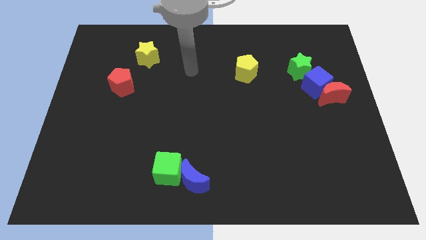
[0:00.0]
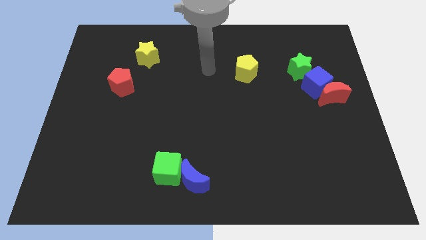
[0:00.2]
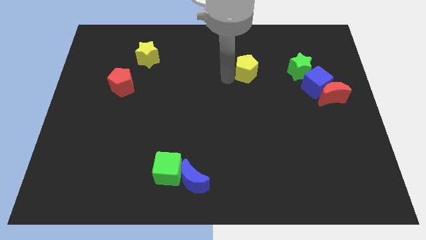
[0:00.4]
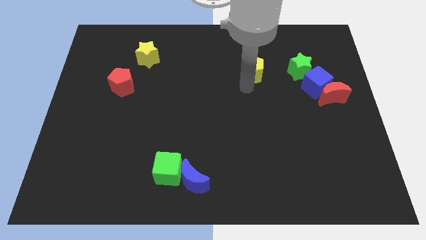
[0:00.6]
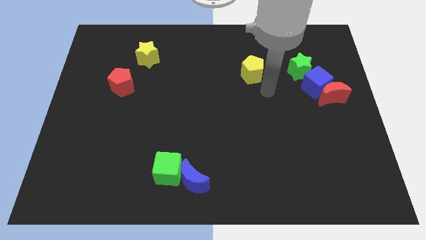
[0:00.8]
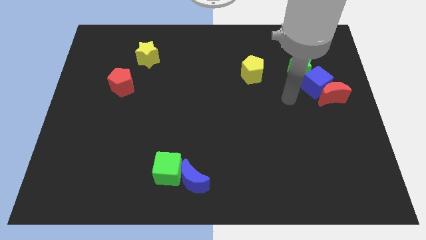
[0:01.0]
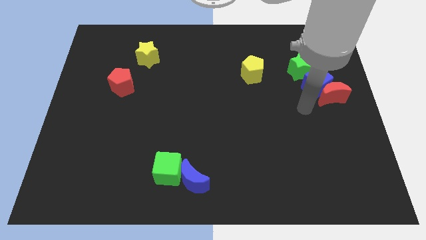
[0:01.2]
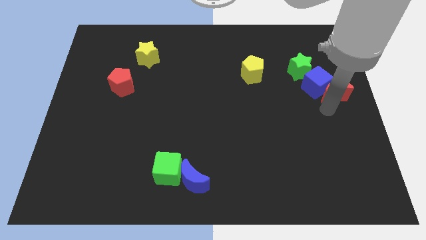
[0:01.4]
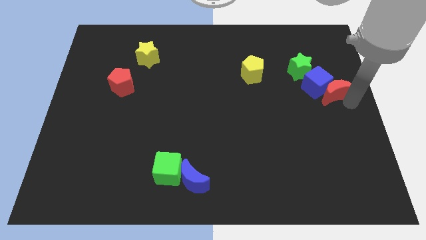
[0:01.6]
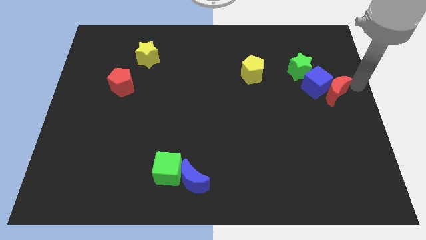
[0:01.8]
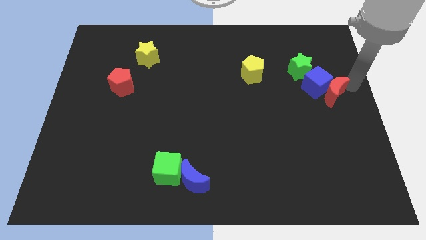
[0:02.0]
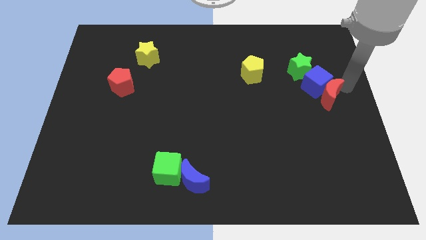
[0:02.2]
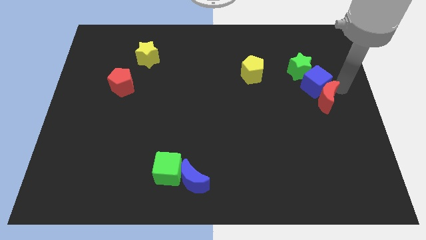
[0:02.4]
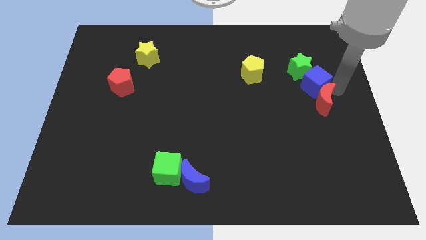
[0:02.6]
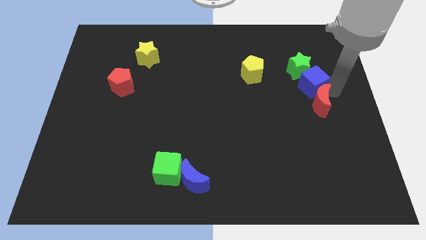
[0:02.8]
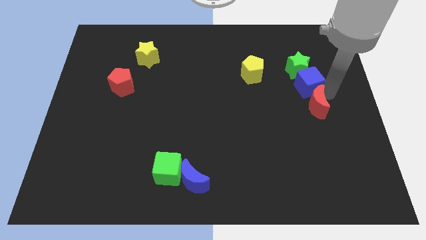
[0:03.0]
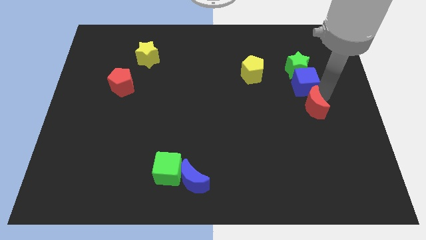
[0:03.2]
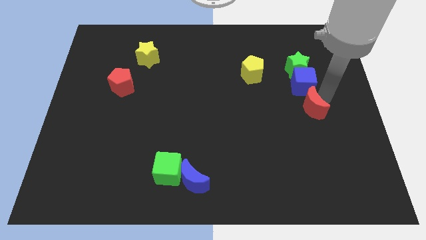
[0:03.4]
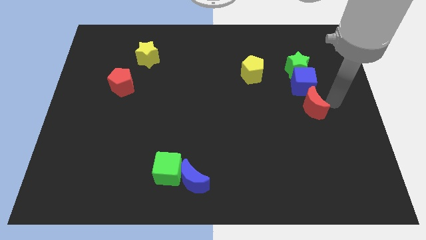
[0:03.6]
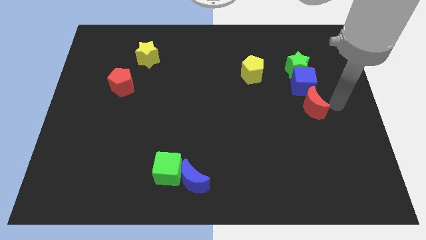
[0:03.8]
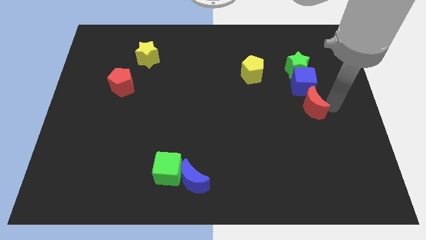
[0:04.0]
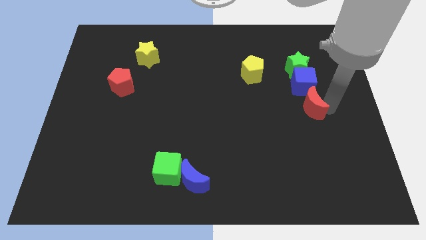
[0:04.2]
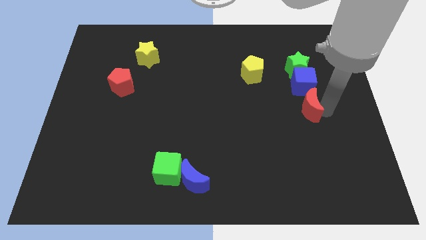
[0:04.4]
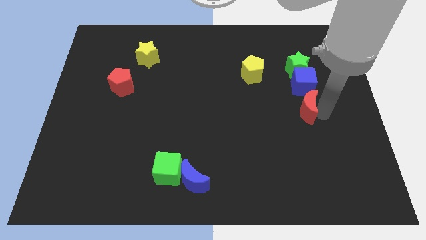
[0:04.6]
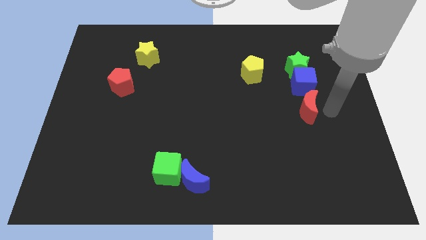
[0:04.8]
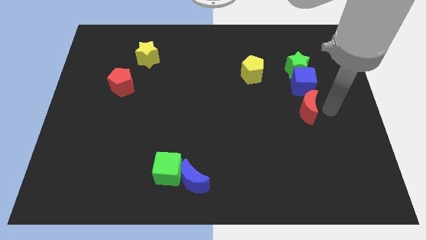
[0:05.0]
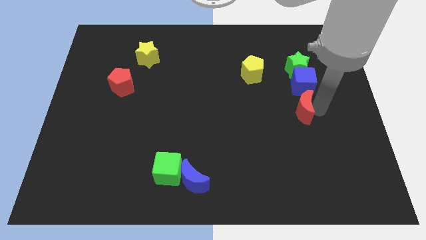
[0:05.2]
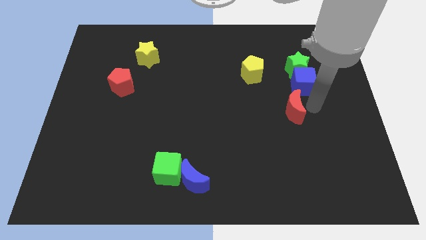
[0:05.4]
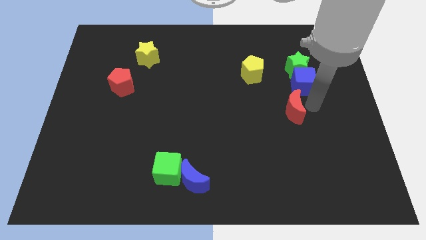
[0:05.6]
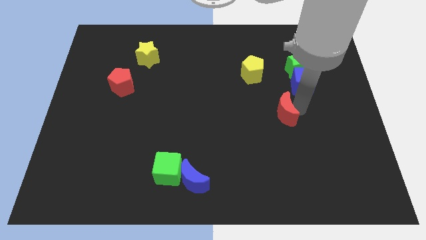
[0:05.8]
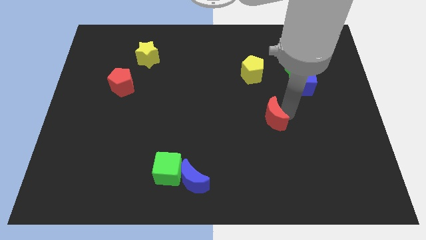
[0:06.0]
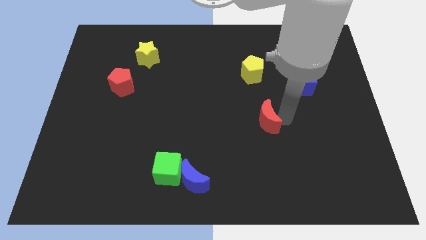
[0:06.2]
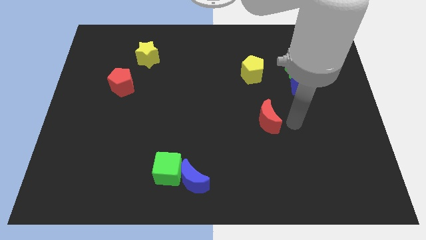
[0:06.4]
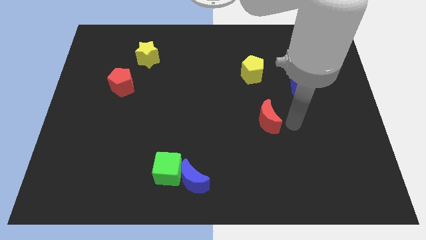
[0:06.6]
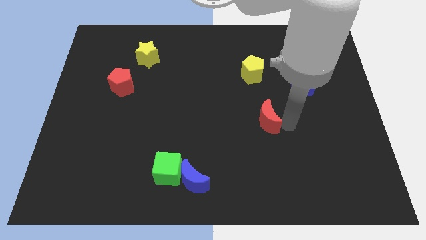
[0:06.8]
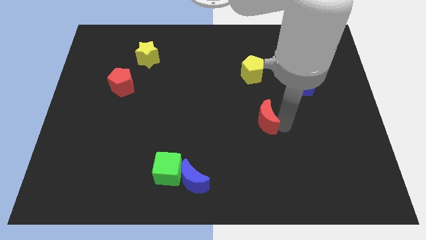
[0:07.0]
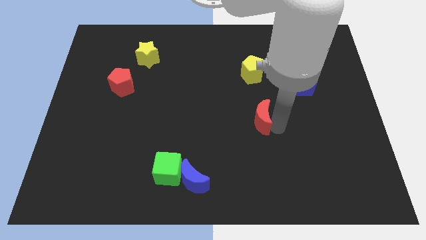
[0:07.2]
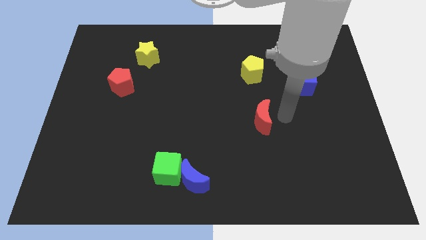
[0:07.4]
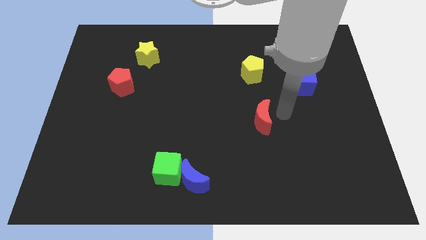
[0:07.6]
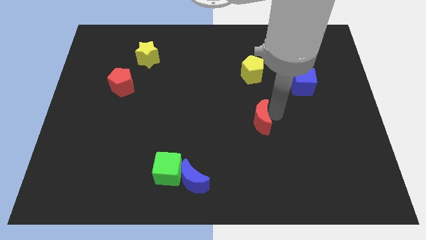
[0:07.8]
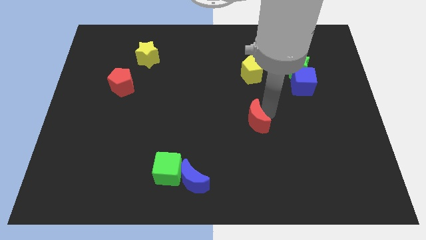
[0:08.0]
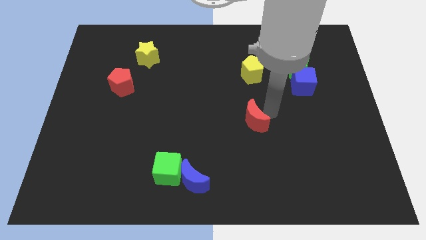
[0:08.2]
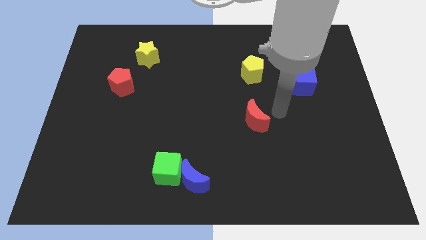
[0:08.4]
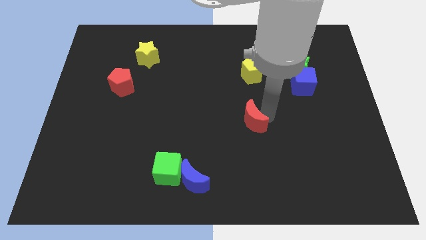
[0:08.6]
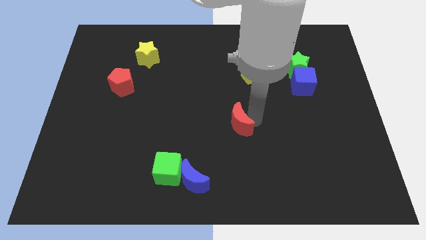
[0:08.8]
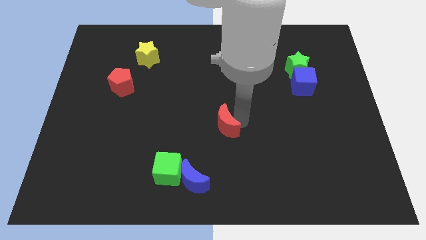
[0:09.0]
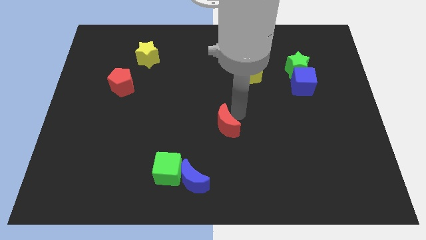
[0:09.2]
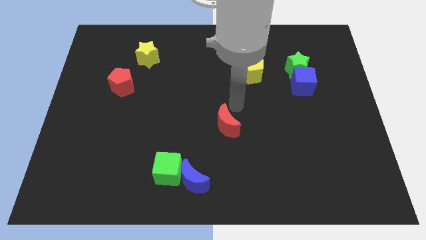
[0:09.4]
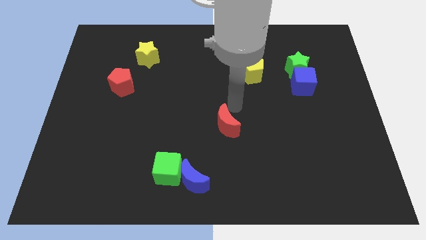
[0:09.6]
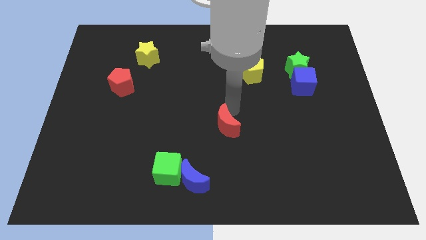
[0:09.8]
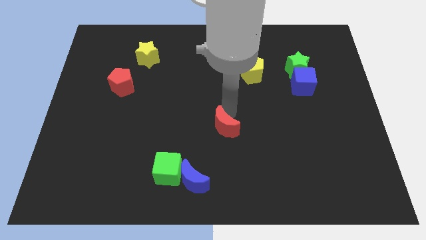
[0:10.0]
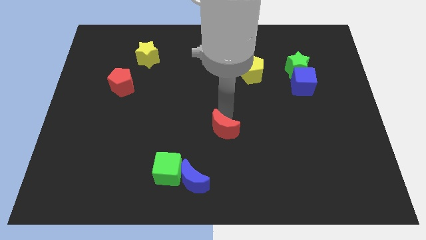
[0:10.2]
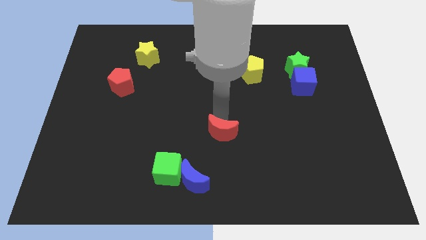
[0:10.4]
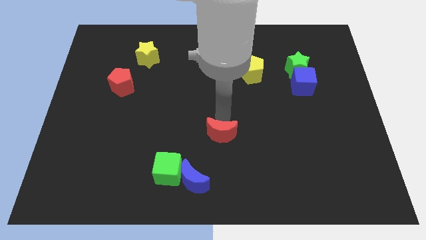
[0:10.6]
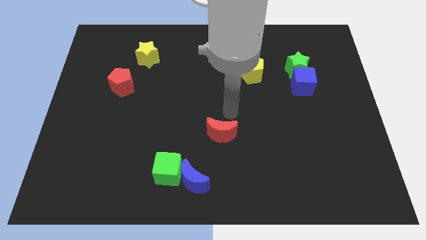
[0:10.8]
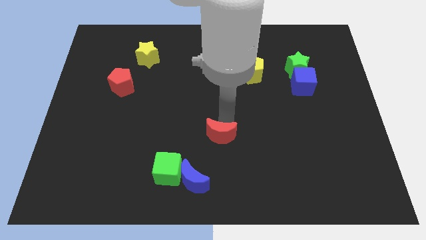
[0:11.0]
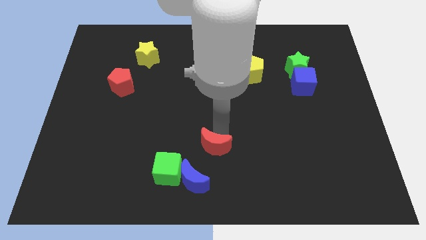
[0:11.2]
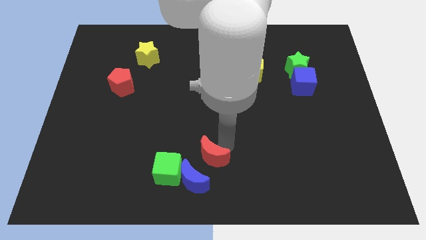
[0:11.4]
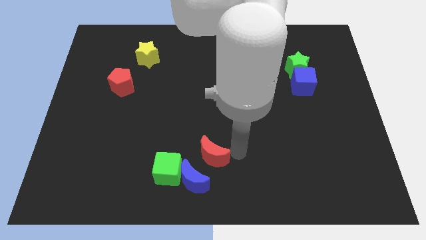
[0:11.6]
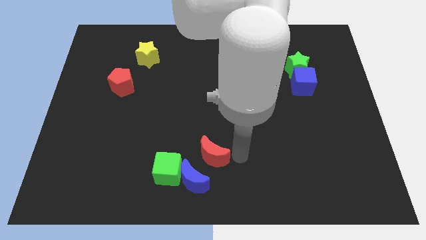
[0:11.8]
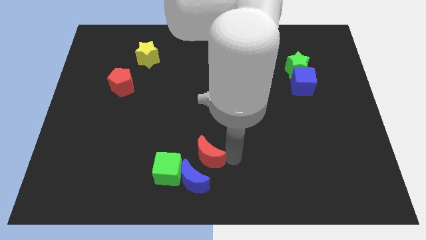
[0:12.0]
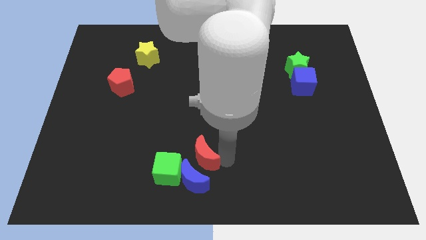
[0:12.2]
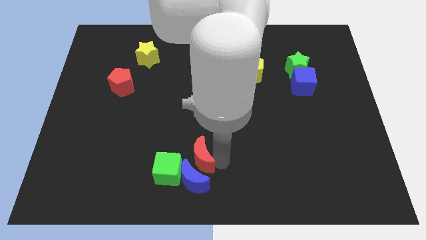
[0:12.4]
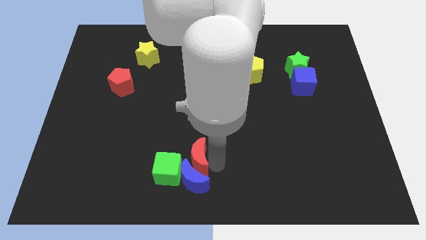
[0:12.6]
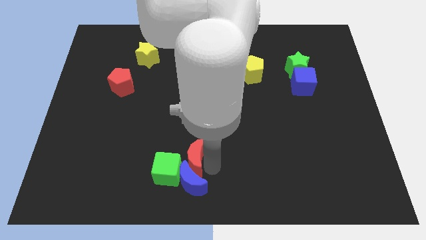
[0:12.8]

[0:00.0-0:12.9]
push the red moon to the green cube

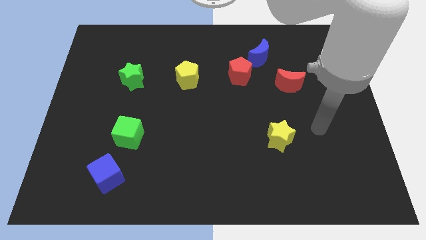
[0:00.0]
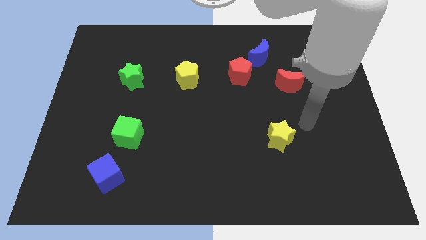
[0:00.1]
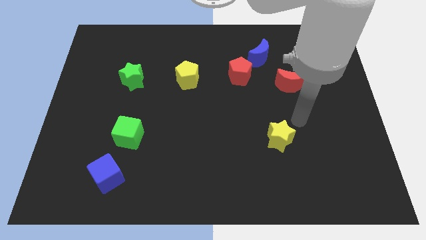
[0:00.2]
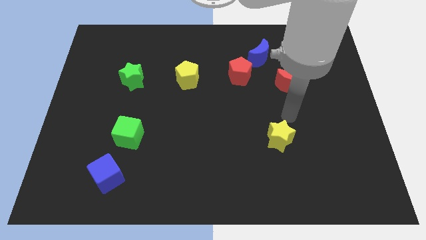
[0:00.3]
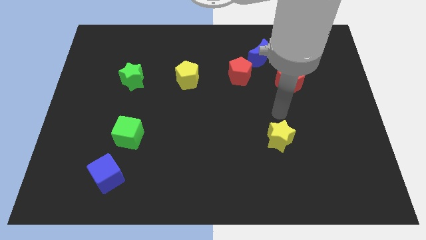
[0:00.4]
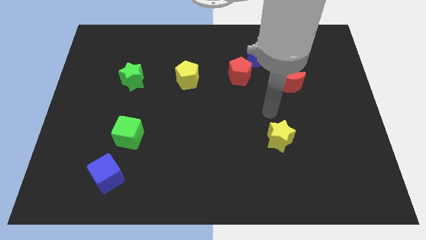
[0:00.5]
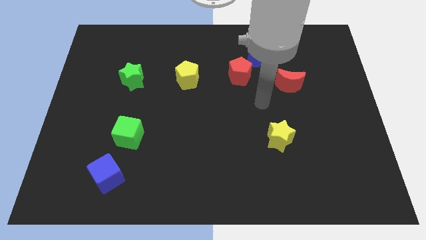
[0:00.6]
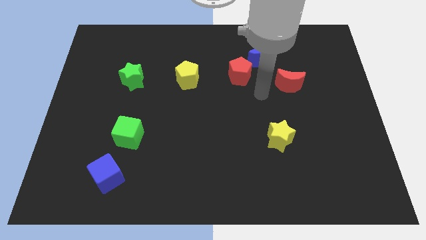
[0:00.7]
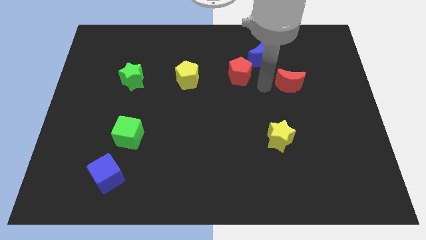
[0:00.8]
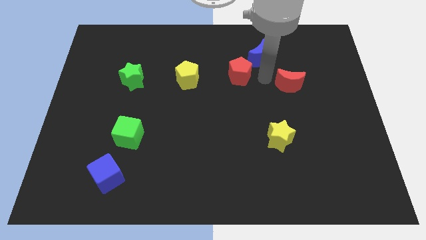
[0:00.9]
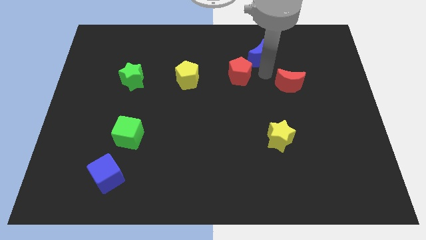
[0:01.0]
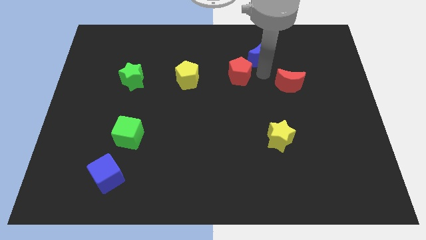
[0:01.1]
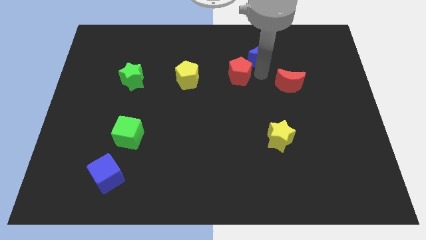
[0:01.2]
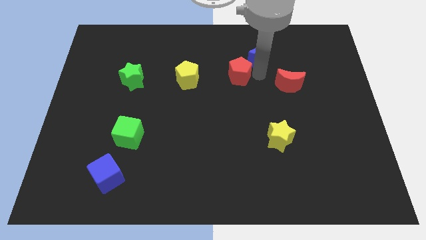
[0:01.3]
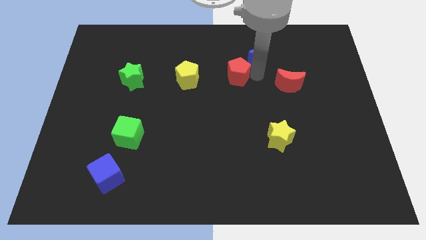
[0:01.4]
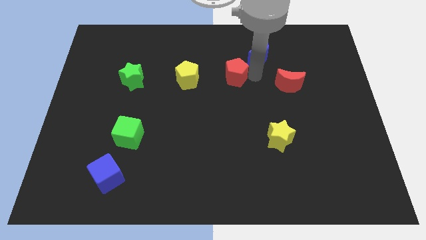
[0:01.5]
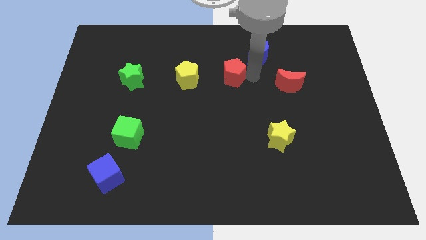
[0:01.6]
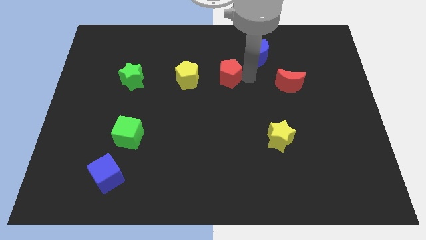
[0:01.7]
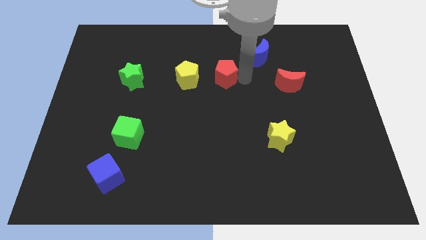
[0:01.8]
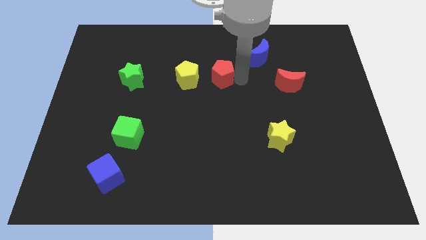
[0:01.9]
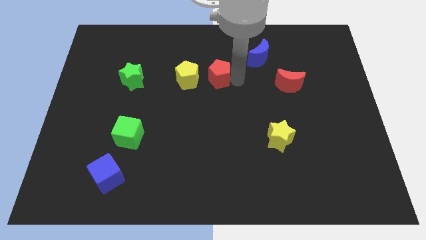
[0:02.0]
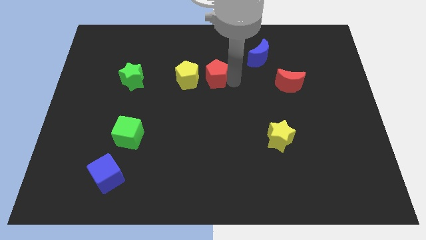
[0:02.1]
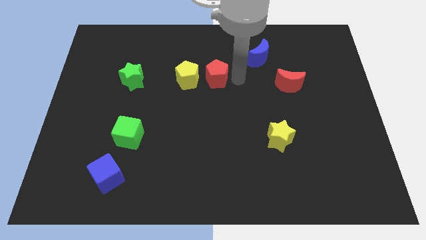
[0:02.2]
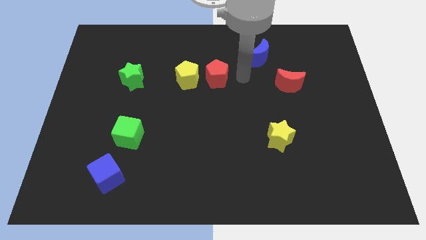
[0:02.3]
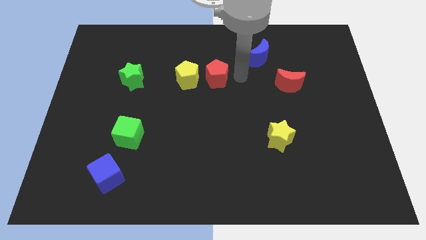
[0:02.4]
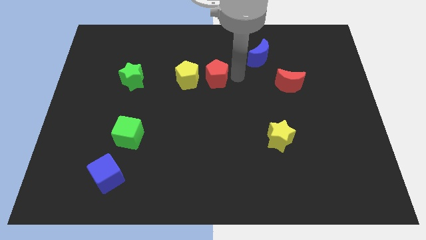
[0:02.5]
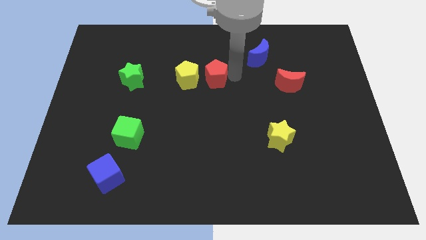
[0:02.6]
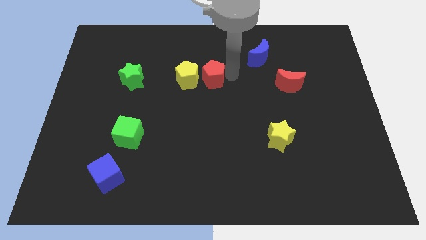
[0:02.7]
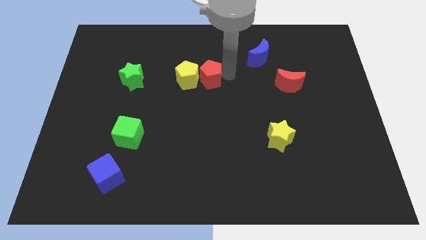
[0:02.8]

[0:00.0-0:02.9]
push the red pentagon next to the yellow pentagon
